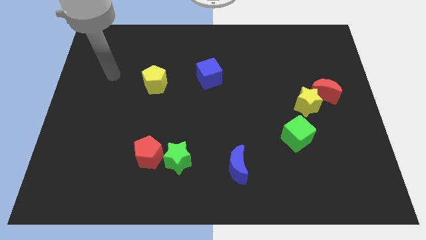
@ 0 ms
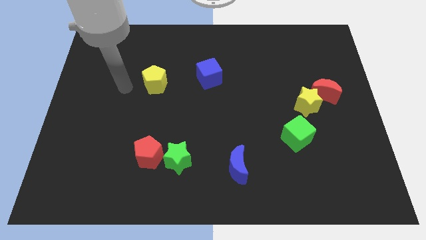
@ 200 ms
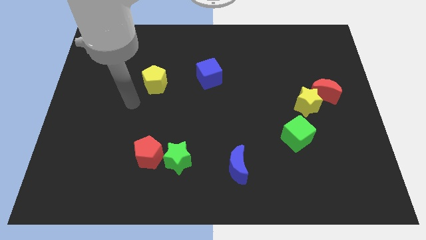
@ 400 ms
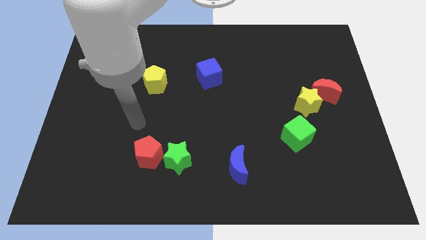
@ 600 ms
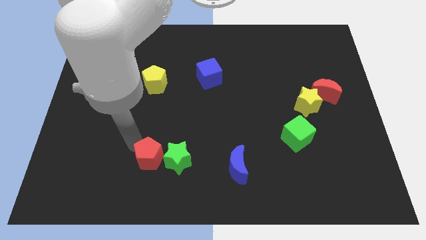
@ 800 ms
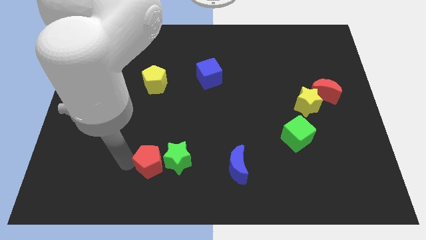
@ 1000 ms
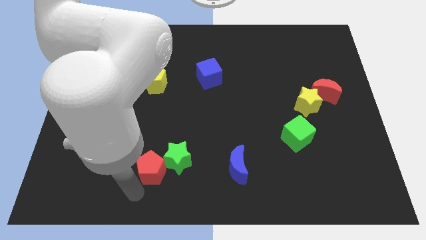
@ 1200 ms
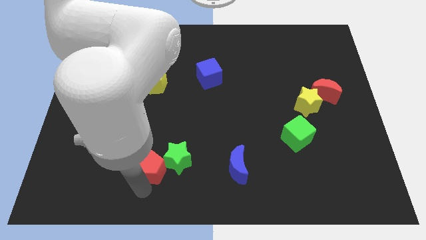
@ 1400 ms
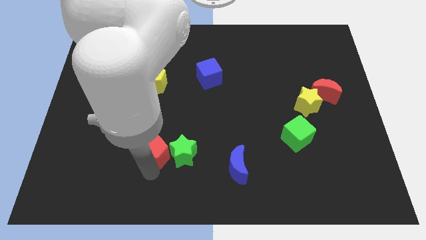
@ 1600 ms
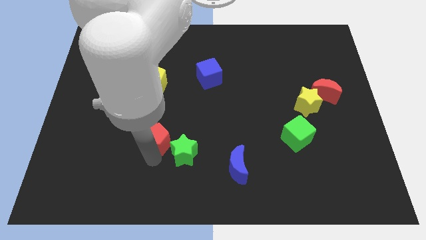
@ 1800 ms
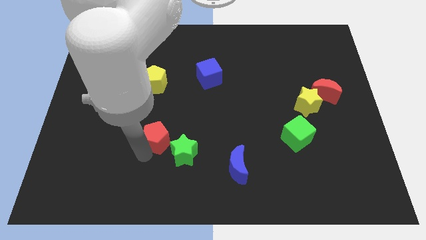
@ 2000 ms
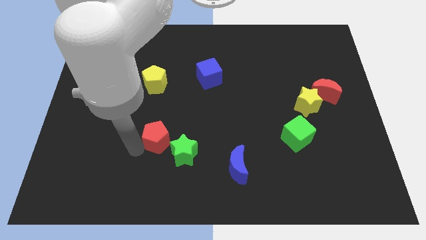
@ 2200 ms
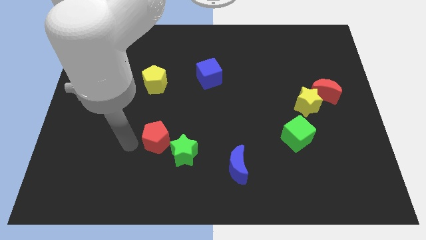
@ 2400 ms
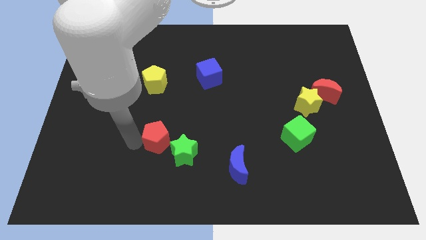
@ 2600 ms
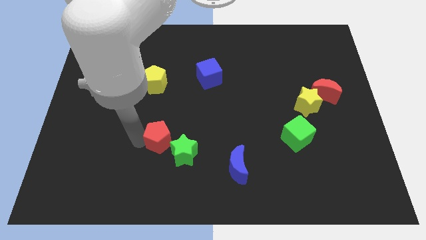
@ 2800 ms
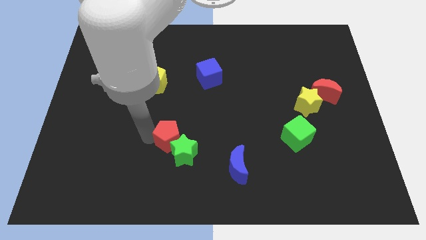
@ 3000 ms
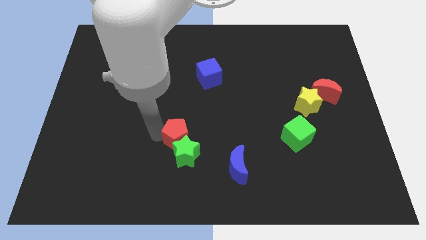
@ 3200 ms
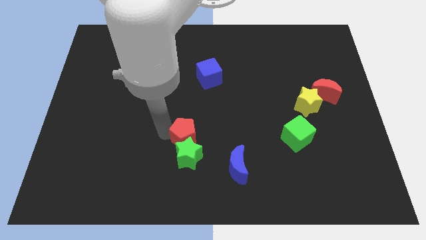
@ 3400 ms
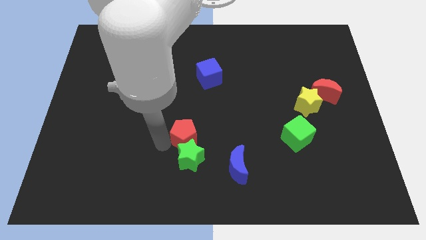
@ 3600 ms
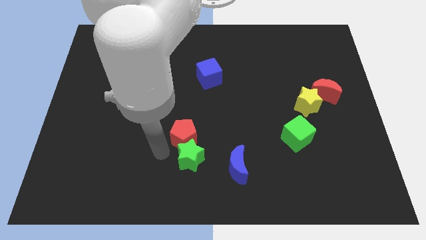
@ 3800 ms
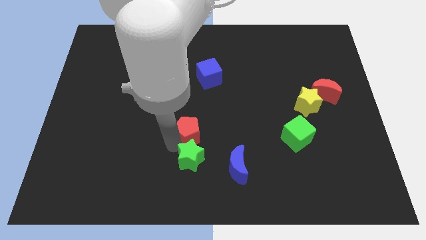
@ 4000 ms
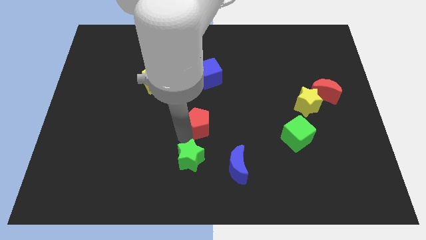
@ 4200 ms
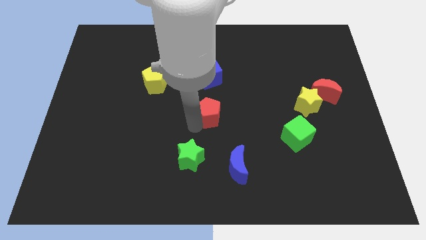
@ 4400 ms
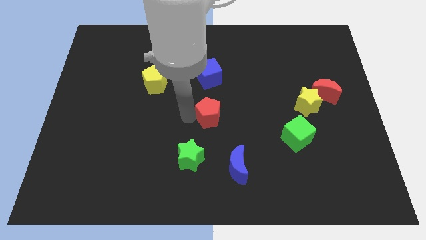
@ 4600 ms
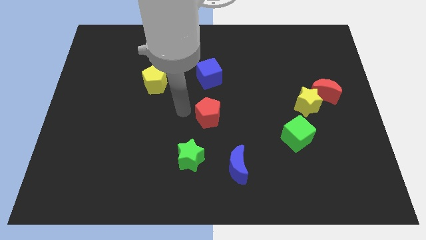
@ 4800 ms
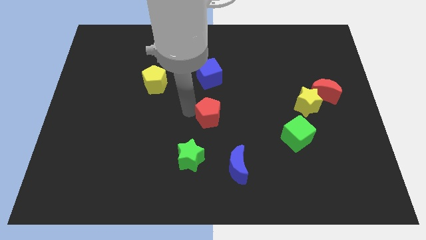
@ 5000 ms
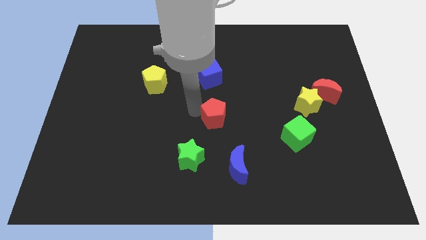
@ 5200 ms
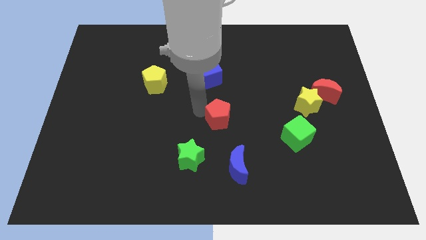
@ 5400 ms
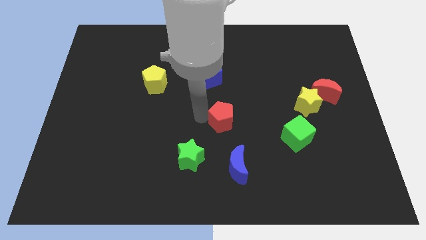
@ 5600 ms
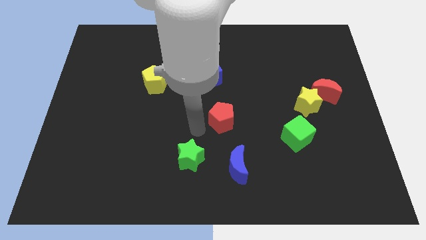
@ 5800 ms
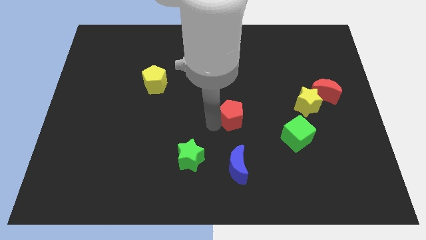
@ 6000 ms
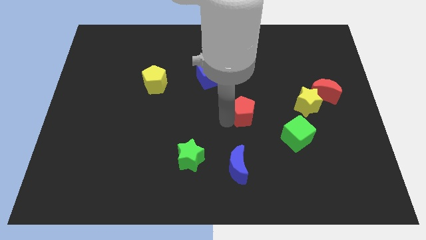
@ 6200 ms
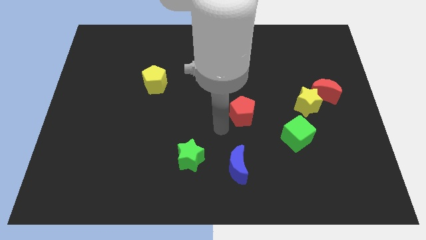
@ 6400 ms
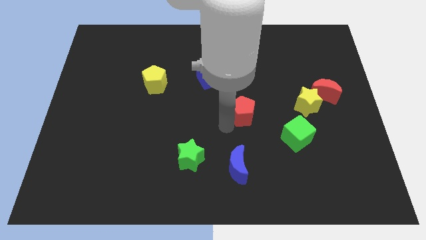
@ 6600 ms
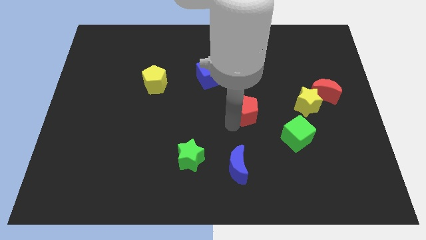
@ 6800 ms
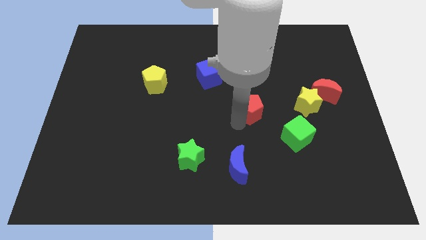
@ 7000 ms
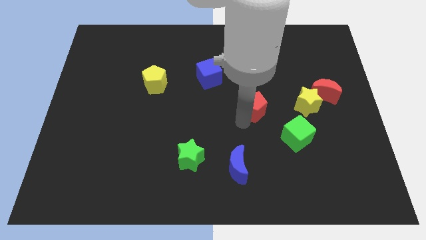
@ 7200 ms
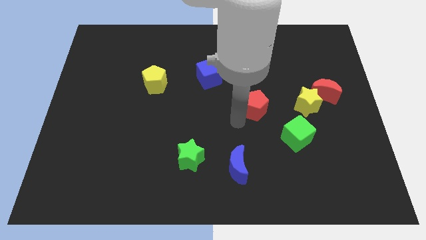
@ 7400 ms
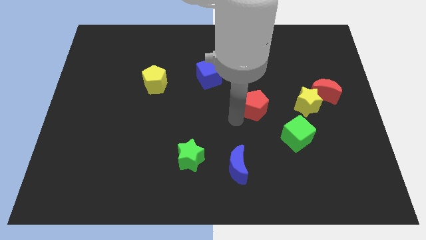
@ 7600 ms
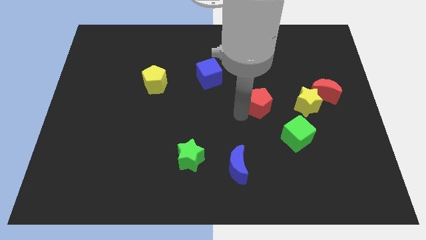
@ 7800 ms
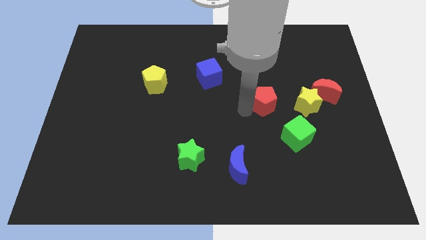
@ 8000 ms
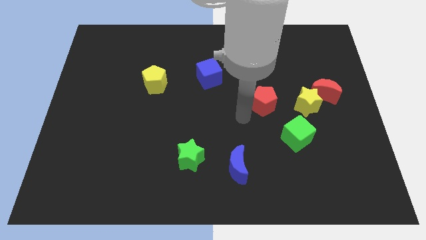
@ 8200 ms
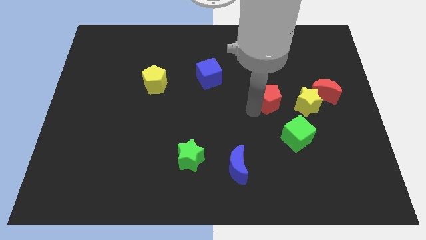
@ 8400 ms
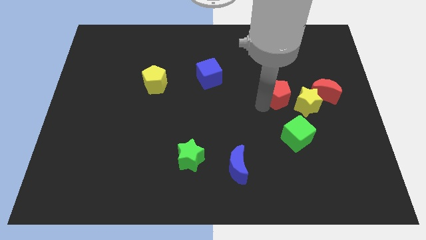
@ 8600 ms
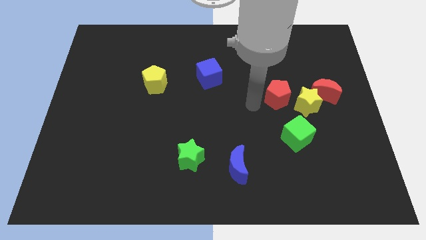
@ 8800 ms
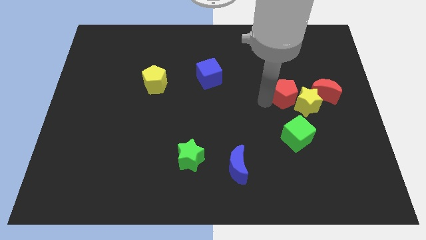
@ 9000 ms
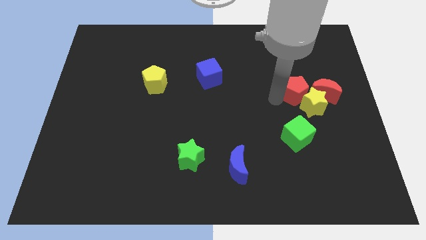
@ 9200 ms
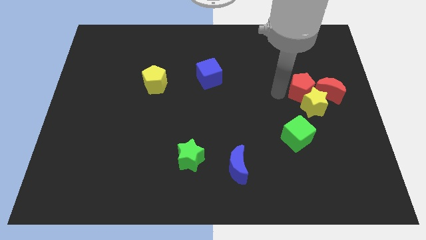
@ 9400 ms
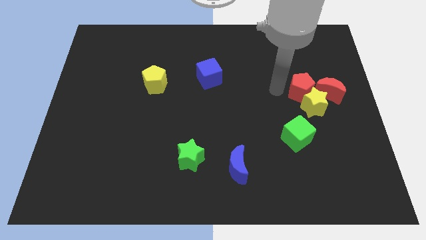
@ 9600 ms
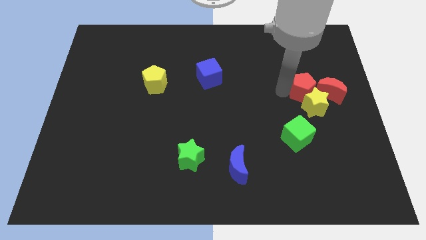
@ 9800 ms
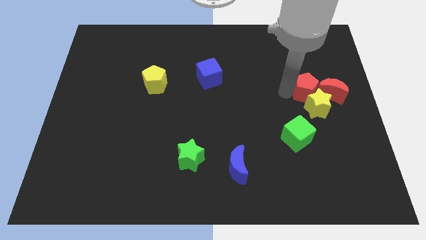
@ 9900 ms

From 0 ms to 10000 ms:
put the red pentagon next to the red moon

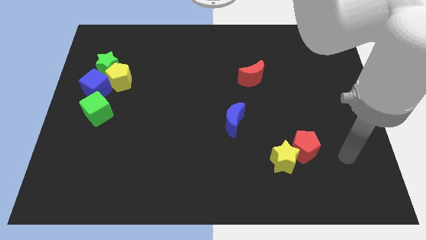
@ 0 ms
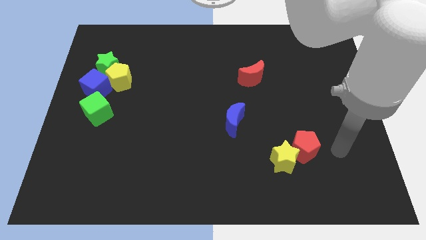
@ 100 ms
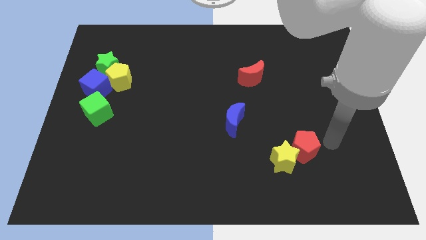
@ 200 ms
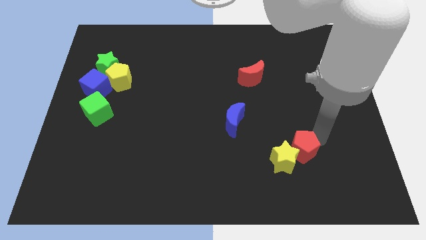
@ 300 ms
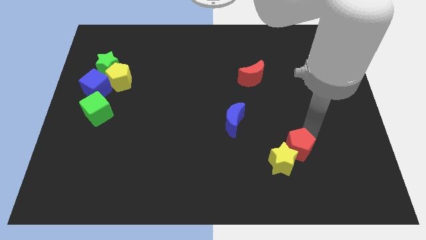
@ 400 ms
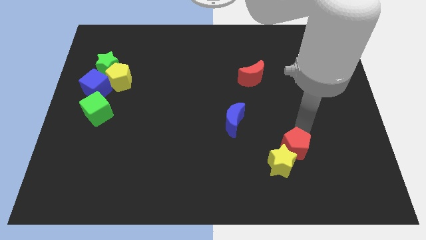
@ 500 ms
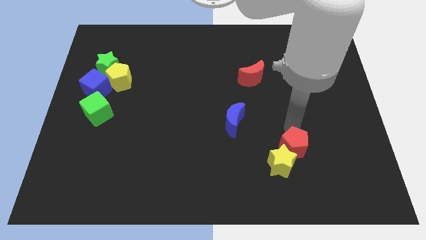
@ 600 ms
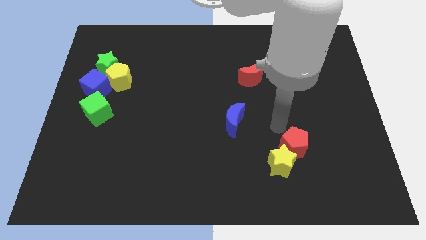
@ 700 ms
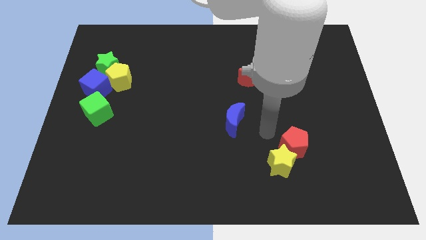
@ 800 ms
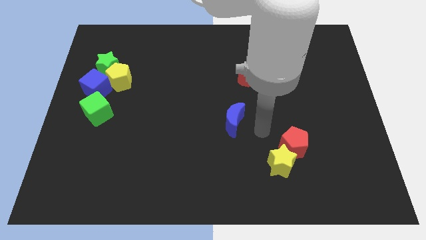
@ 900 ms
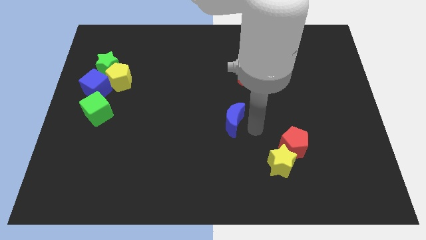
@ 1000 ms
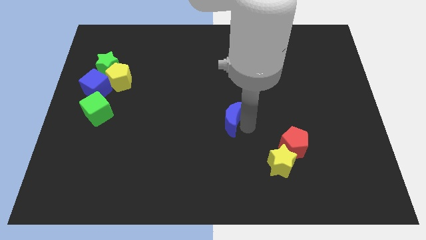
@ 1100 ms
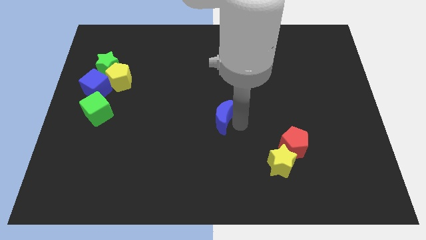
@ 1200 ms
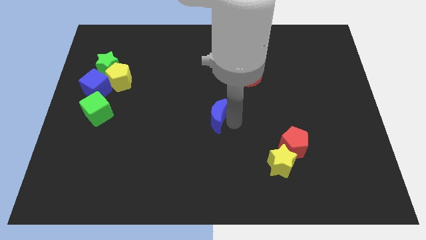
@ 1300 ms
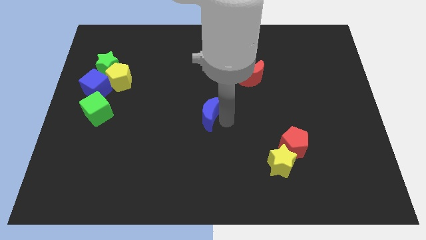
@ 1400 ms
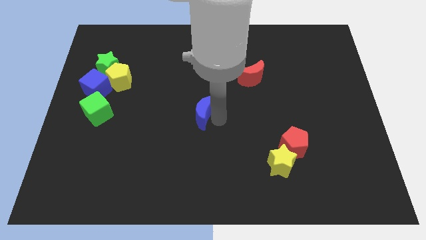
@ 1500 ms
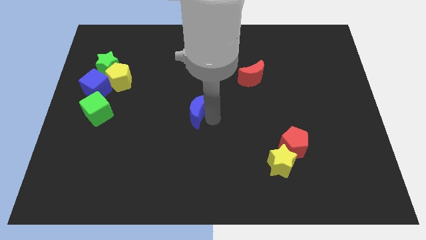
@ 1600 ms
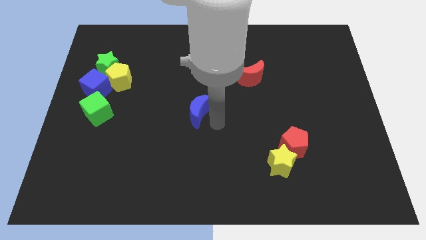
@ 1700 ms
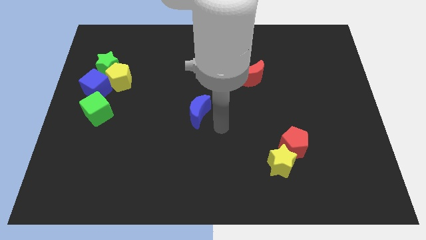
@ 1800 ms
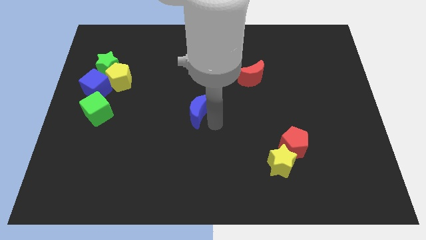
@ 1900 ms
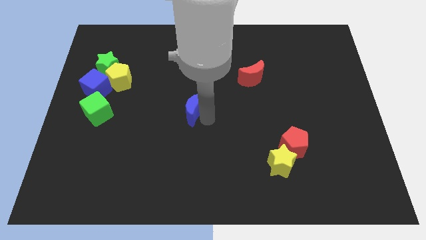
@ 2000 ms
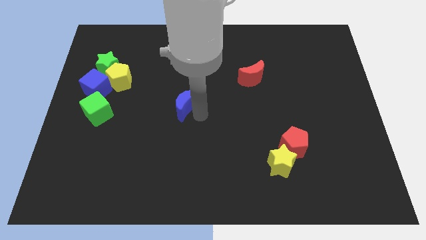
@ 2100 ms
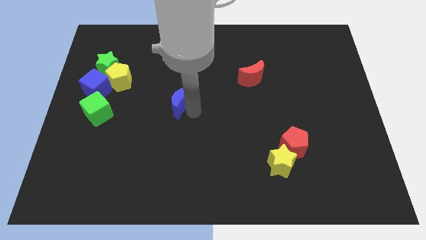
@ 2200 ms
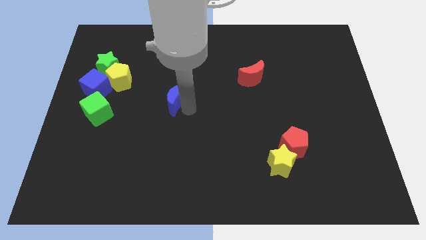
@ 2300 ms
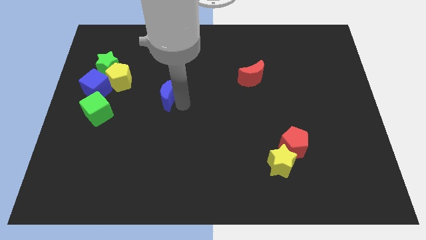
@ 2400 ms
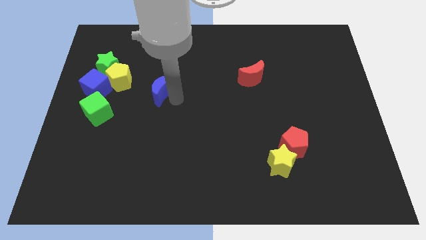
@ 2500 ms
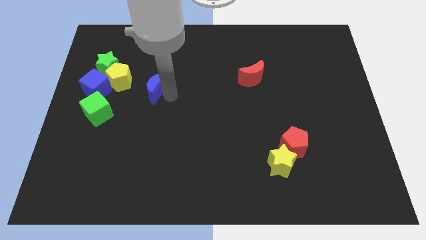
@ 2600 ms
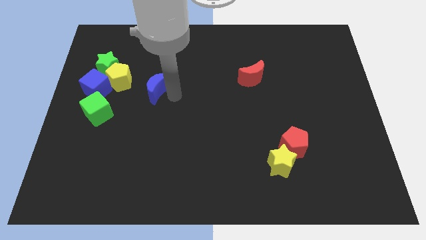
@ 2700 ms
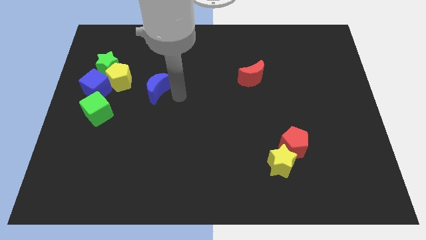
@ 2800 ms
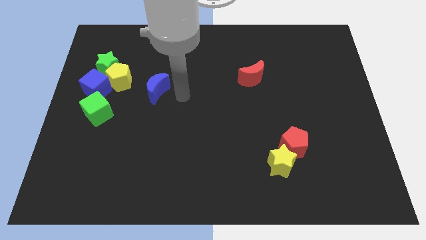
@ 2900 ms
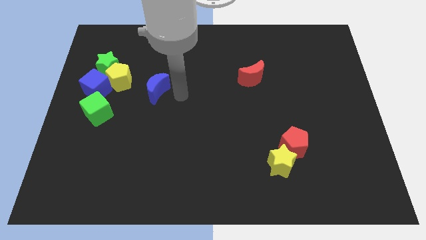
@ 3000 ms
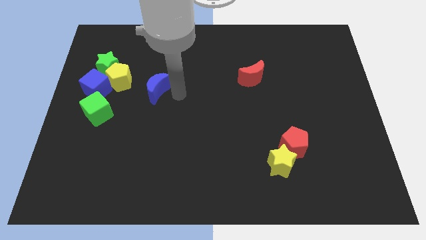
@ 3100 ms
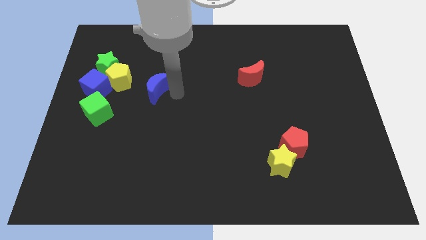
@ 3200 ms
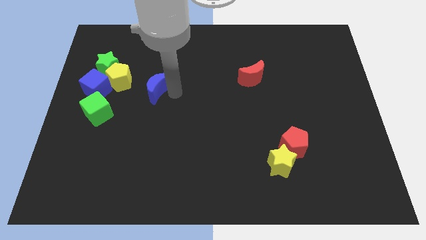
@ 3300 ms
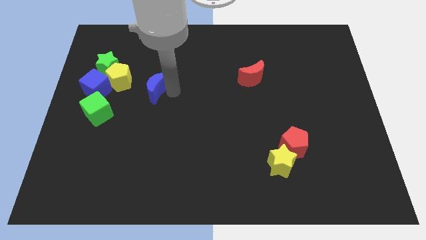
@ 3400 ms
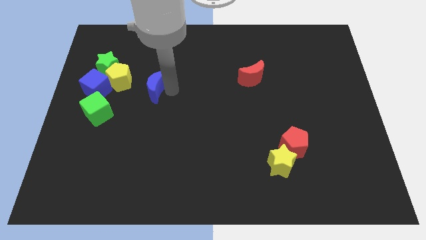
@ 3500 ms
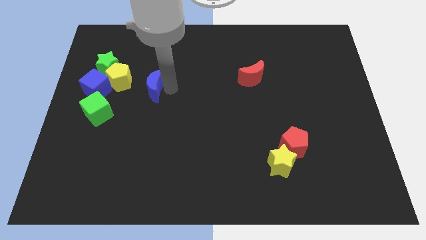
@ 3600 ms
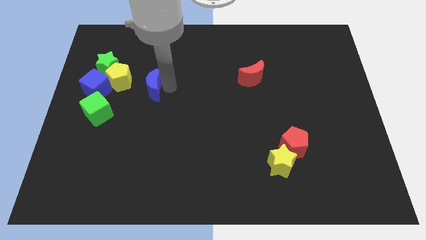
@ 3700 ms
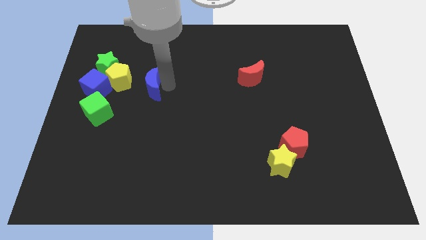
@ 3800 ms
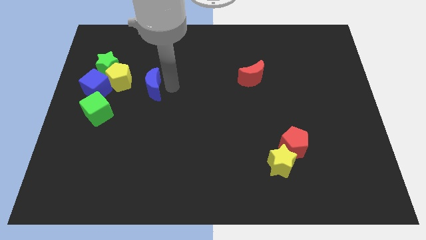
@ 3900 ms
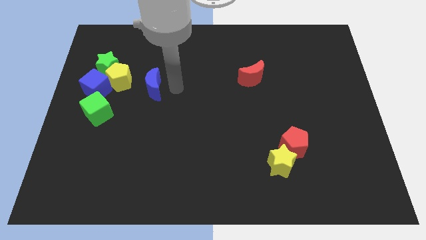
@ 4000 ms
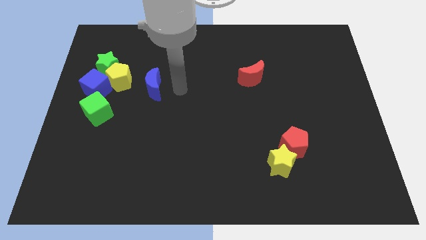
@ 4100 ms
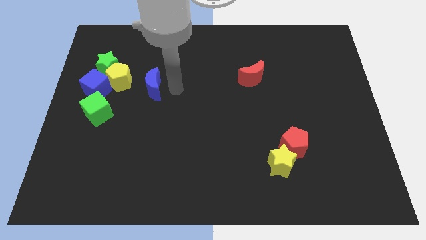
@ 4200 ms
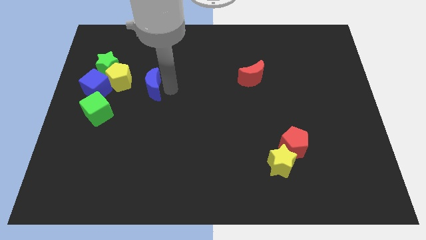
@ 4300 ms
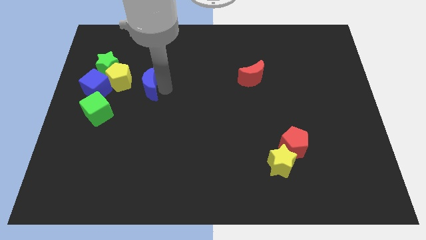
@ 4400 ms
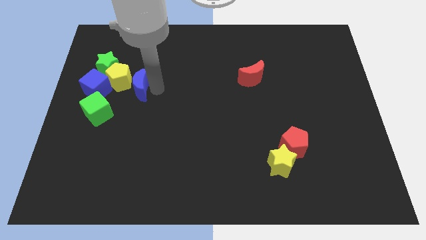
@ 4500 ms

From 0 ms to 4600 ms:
move the blue moon next to the yellow pentagon
